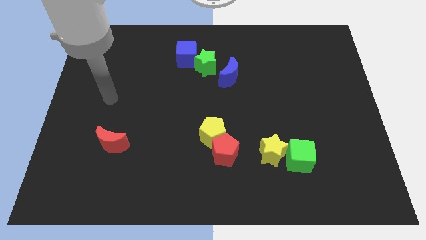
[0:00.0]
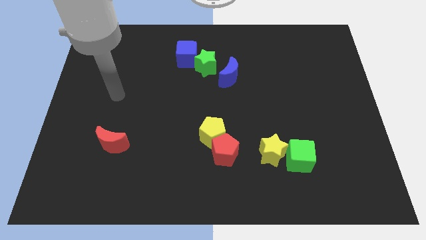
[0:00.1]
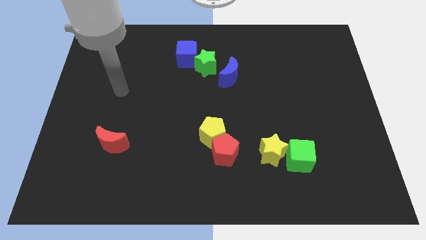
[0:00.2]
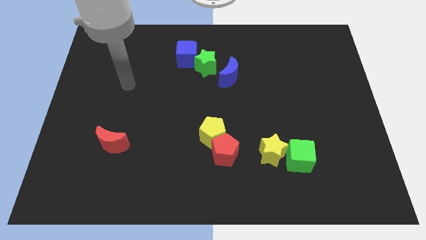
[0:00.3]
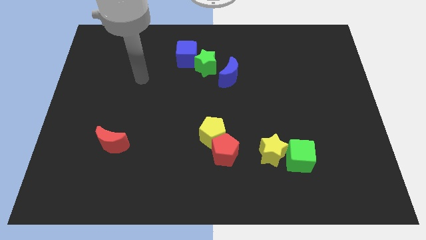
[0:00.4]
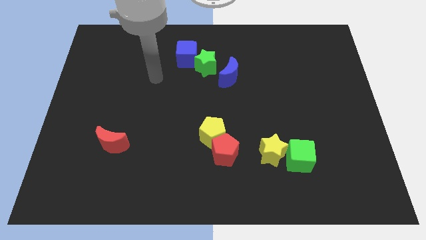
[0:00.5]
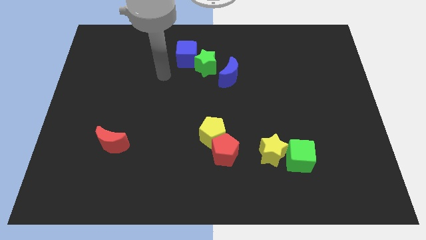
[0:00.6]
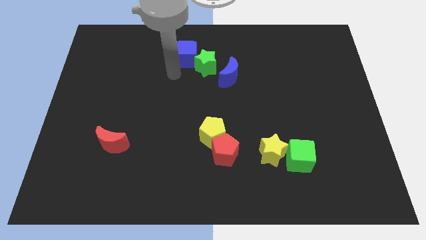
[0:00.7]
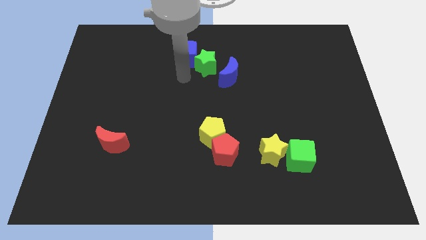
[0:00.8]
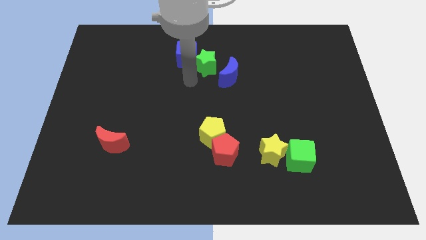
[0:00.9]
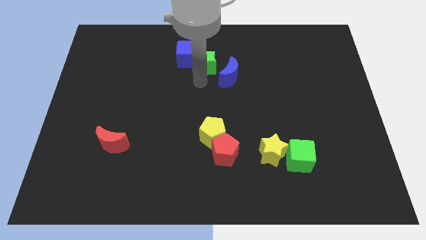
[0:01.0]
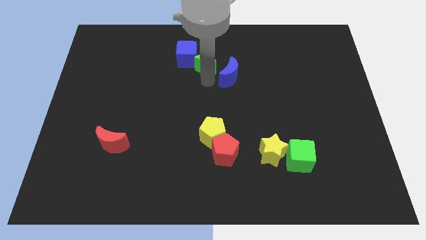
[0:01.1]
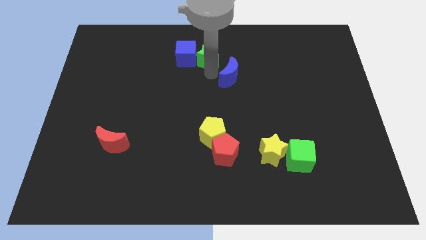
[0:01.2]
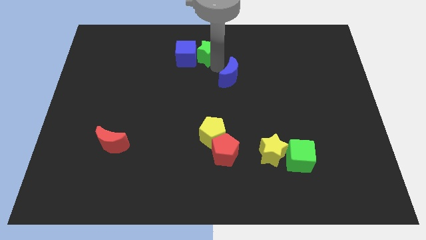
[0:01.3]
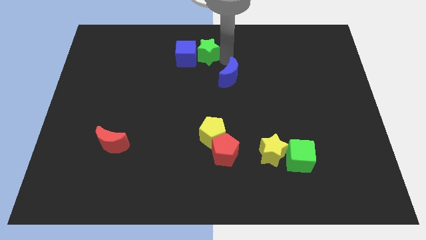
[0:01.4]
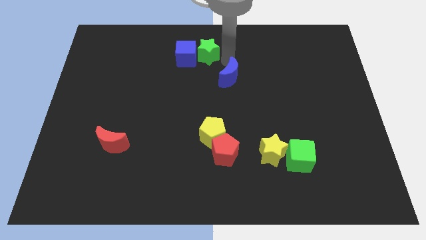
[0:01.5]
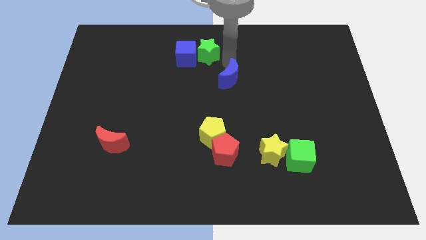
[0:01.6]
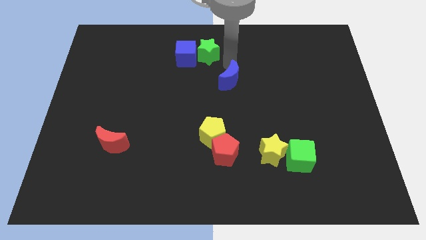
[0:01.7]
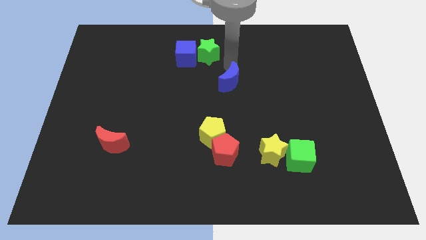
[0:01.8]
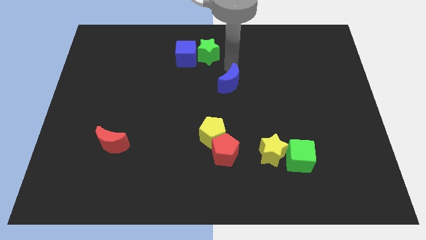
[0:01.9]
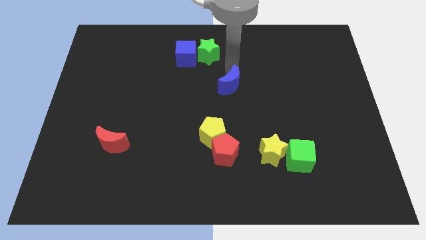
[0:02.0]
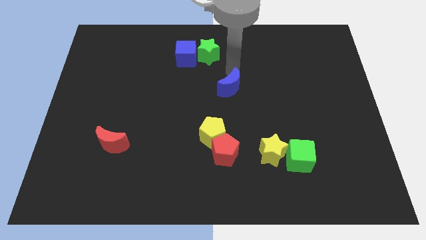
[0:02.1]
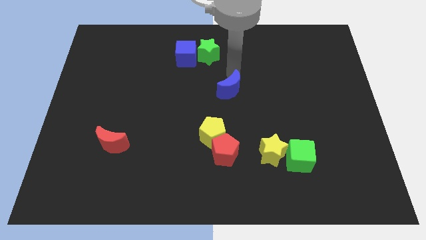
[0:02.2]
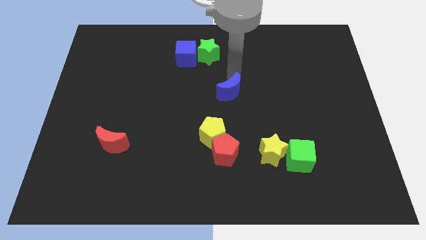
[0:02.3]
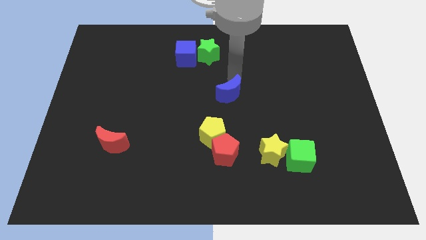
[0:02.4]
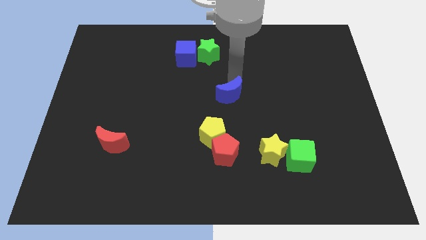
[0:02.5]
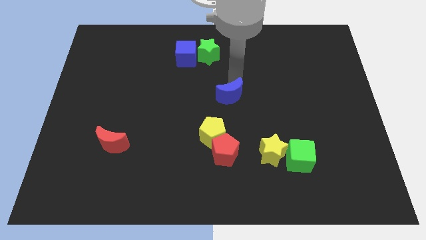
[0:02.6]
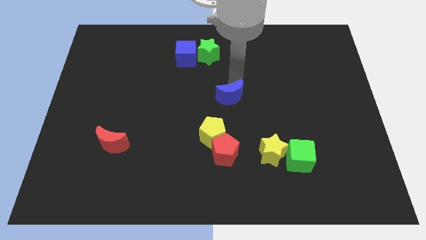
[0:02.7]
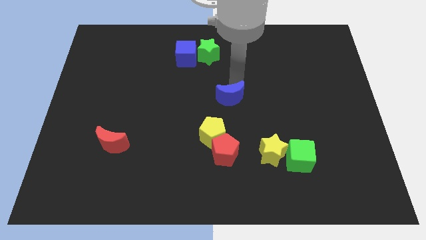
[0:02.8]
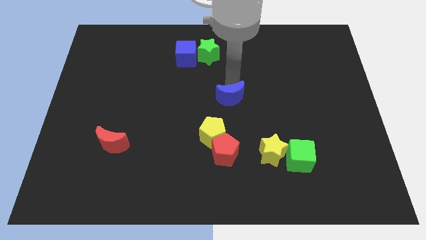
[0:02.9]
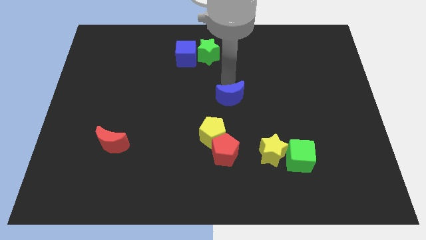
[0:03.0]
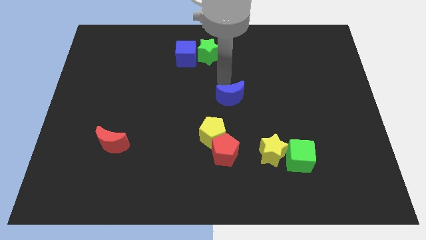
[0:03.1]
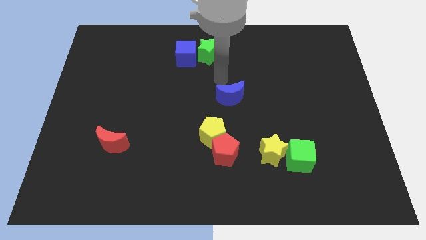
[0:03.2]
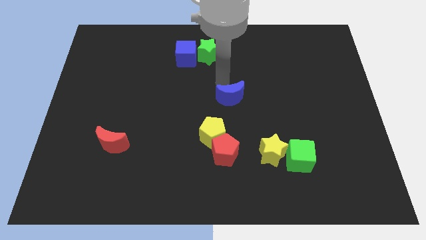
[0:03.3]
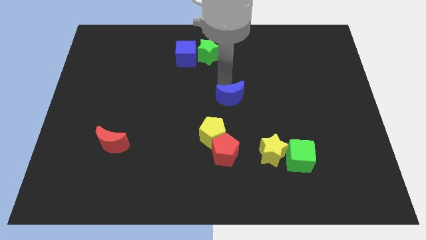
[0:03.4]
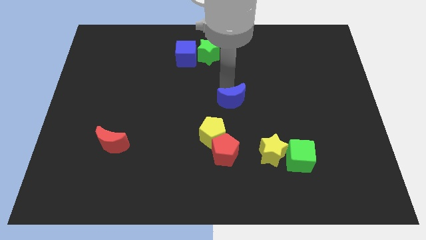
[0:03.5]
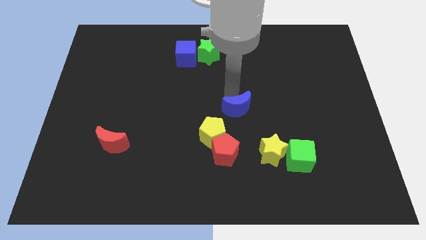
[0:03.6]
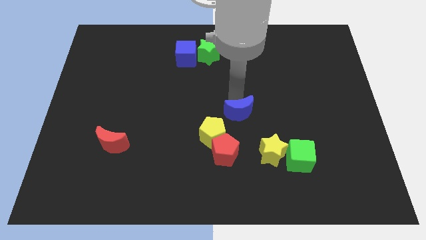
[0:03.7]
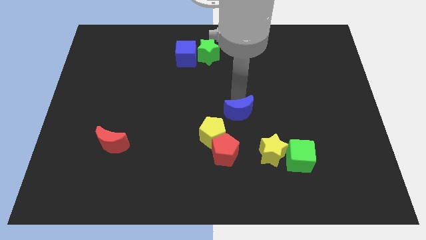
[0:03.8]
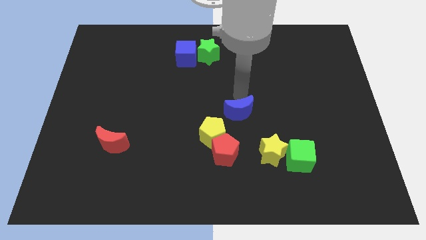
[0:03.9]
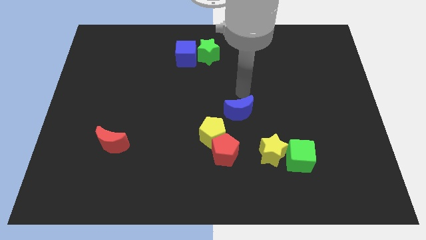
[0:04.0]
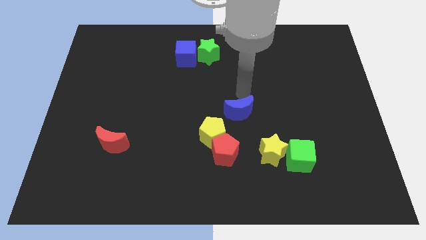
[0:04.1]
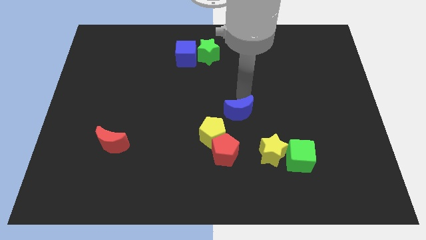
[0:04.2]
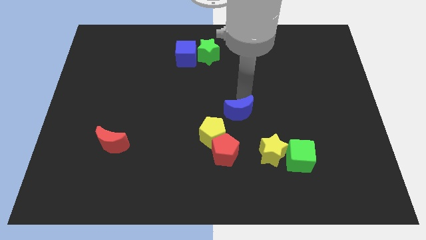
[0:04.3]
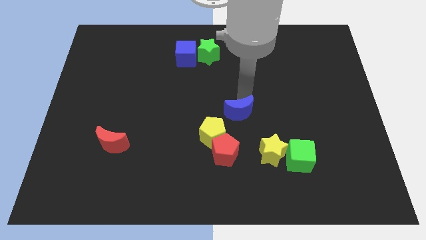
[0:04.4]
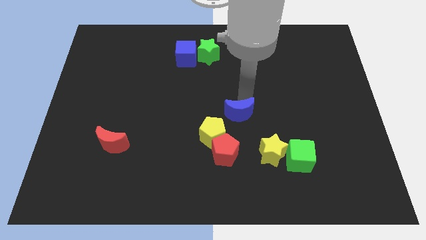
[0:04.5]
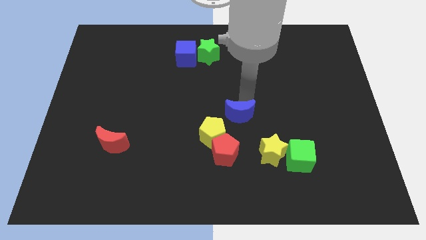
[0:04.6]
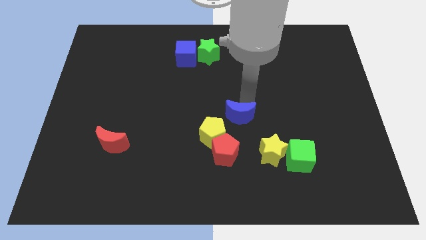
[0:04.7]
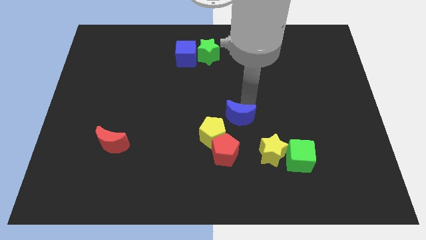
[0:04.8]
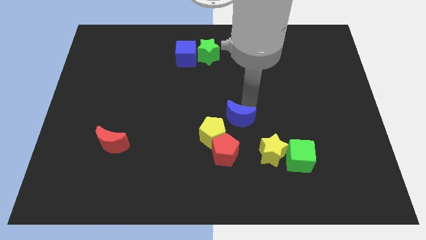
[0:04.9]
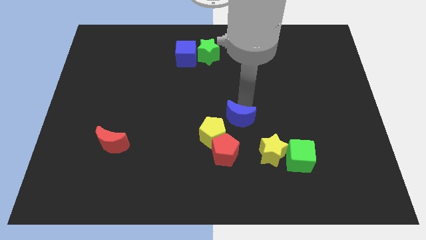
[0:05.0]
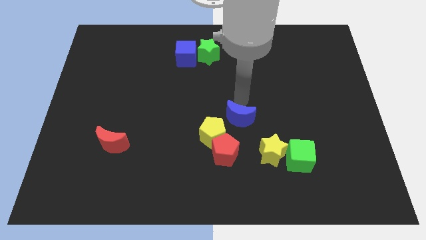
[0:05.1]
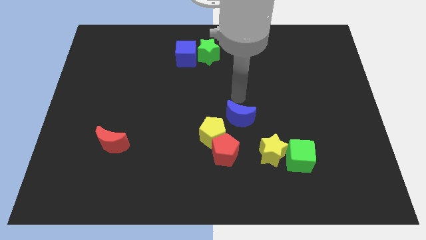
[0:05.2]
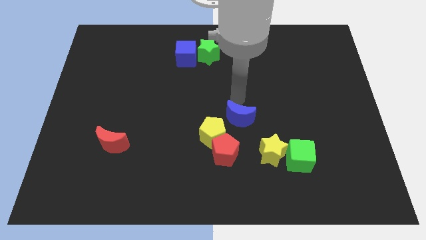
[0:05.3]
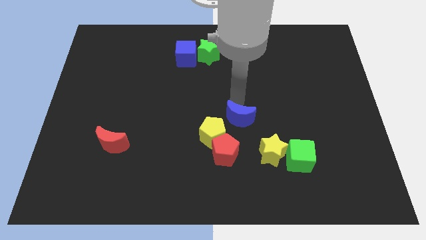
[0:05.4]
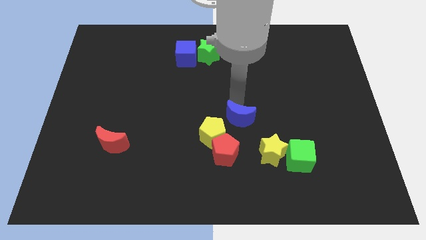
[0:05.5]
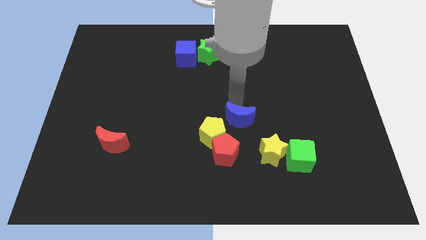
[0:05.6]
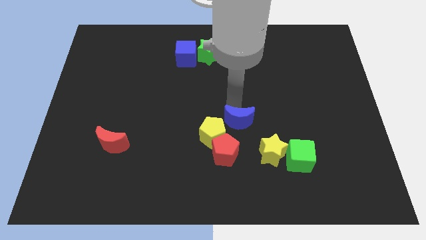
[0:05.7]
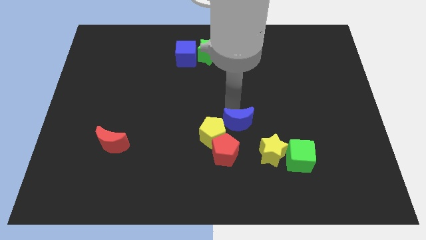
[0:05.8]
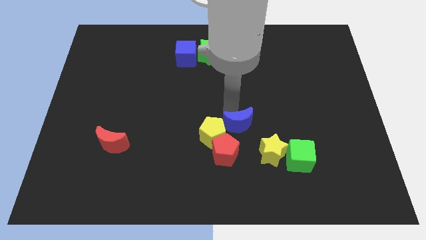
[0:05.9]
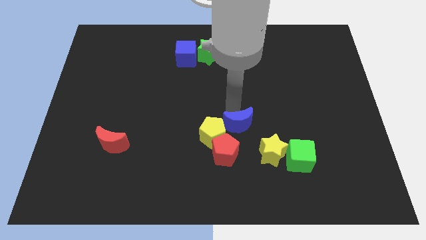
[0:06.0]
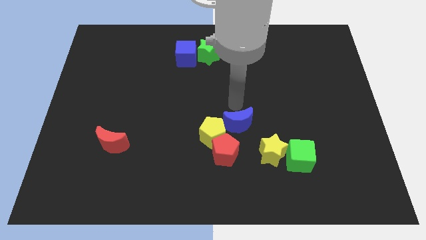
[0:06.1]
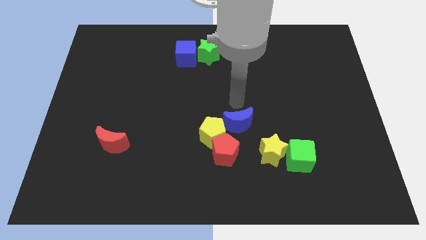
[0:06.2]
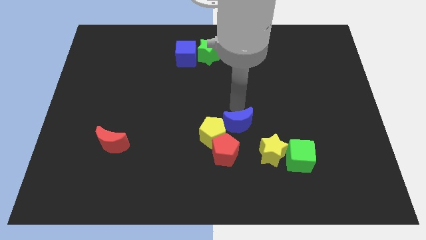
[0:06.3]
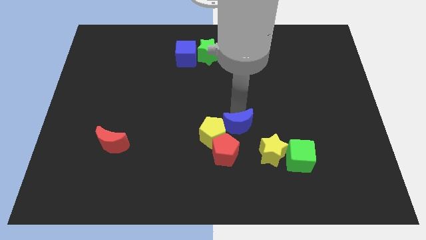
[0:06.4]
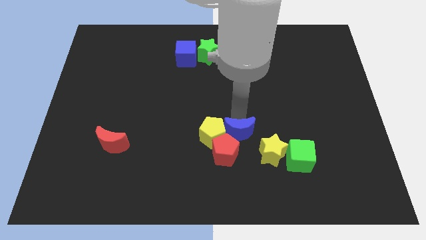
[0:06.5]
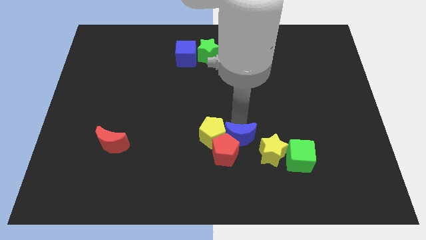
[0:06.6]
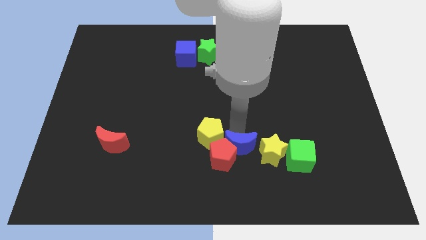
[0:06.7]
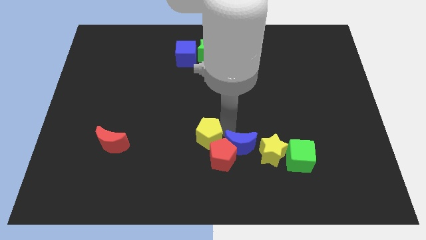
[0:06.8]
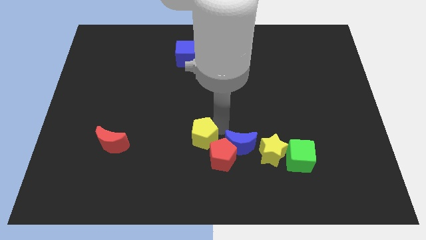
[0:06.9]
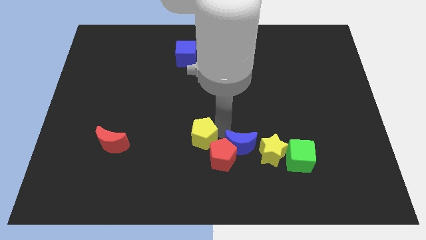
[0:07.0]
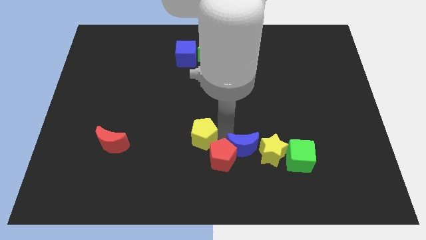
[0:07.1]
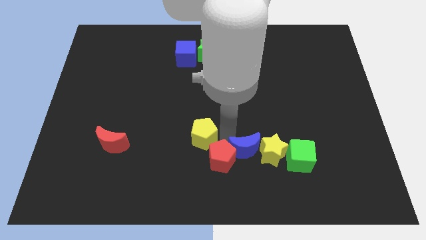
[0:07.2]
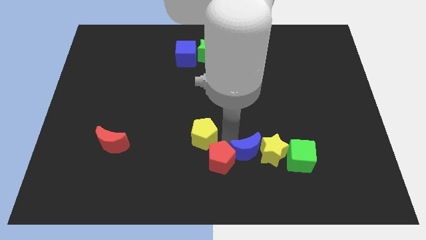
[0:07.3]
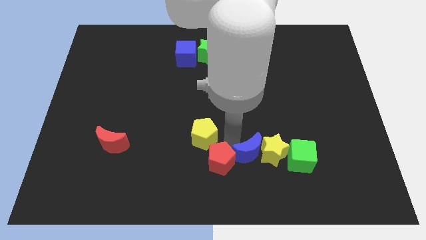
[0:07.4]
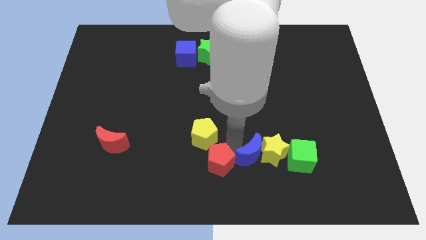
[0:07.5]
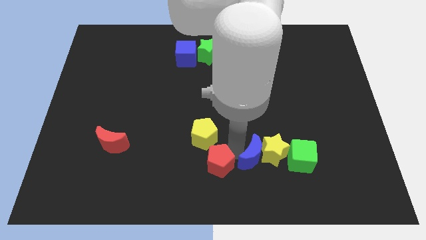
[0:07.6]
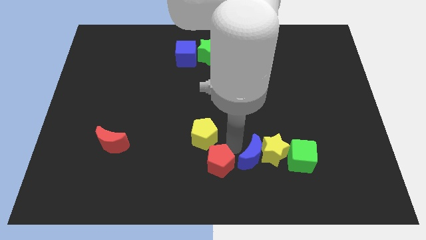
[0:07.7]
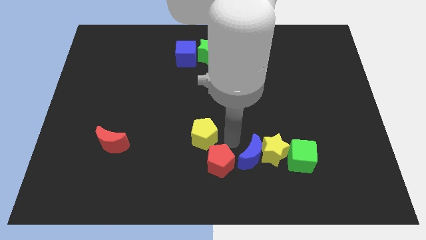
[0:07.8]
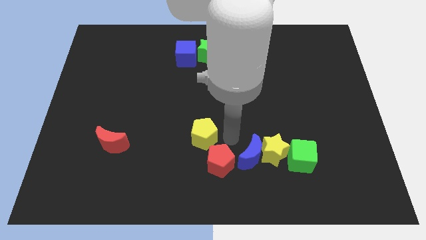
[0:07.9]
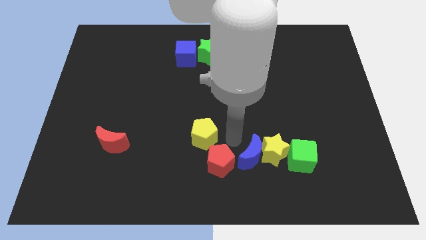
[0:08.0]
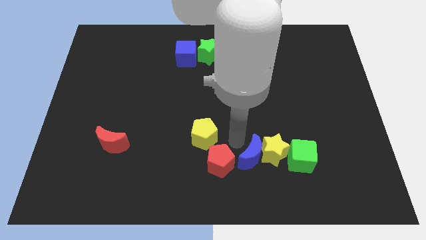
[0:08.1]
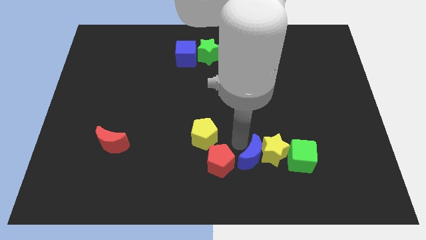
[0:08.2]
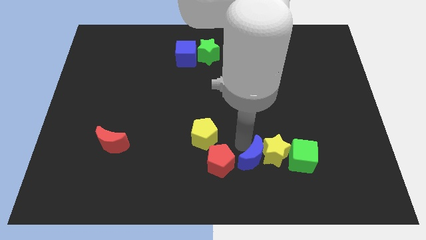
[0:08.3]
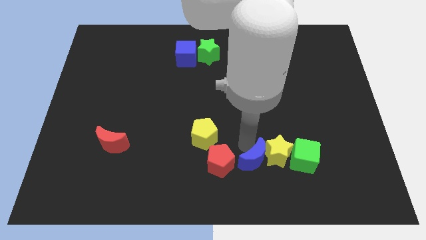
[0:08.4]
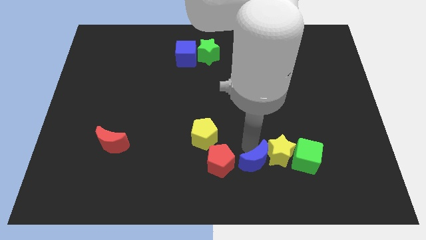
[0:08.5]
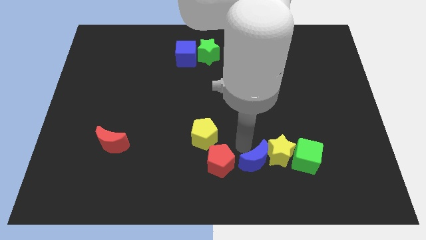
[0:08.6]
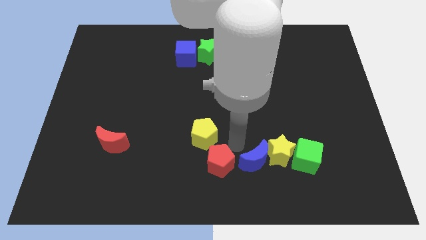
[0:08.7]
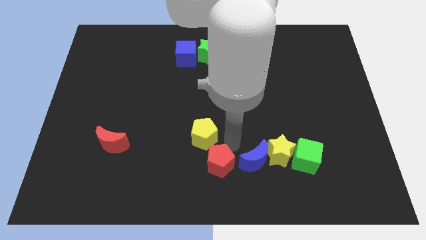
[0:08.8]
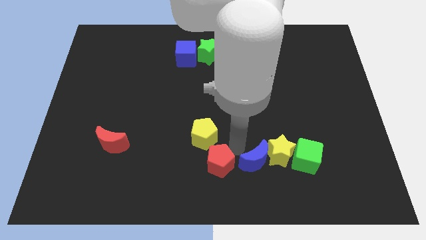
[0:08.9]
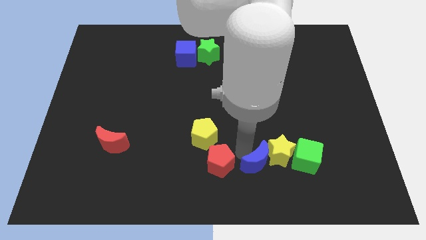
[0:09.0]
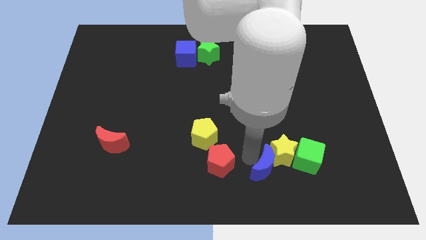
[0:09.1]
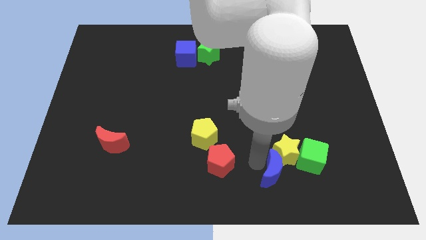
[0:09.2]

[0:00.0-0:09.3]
slide the blue moon to the bottom left side of the green cube
